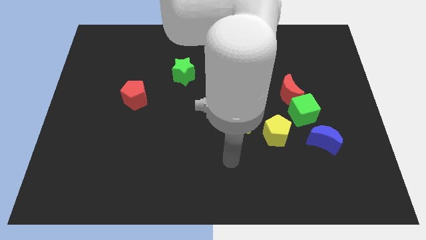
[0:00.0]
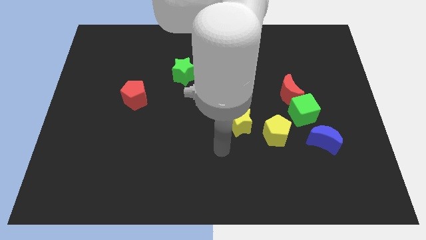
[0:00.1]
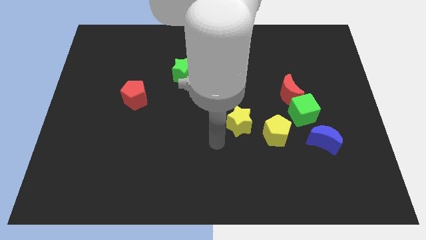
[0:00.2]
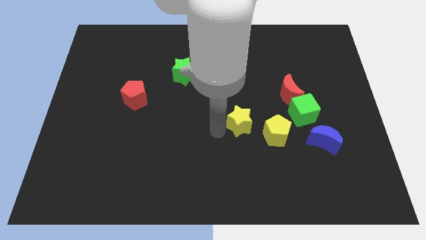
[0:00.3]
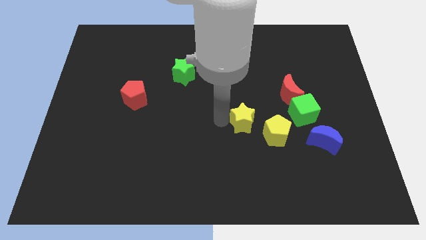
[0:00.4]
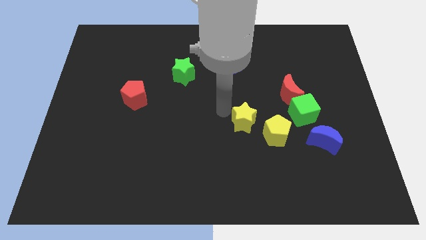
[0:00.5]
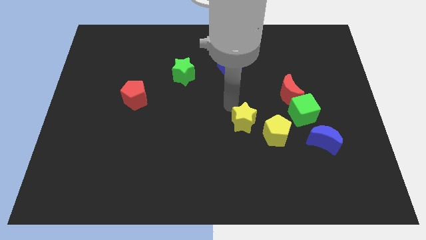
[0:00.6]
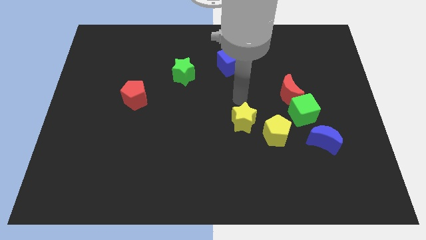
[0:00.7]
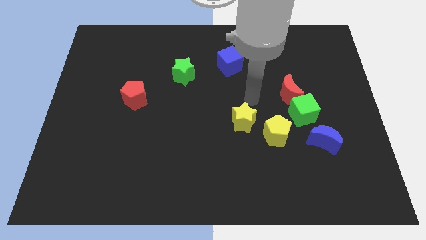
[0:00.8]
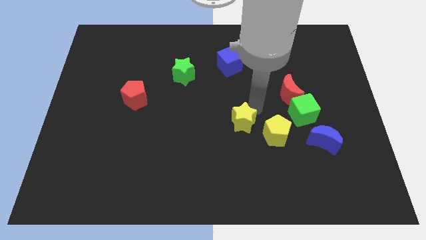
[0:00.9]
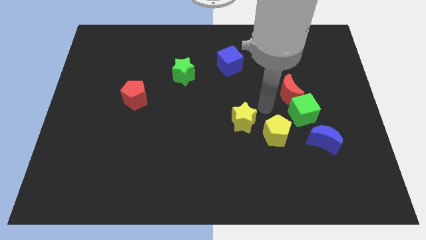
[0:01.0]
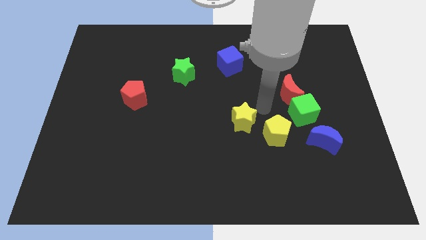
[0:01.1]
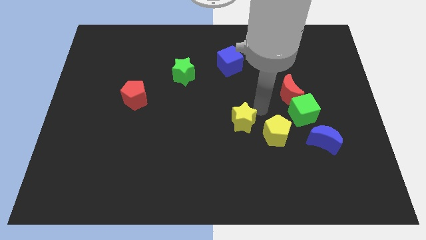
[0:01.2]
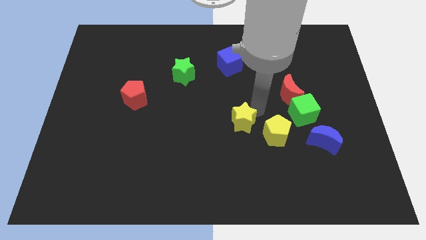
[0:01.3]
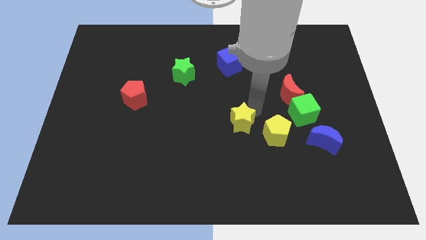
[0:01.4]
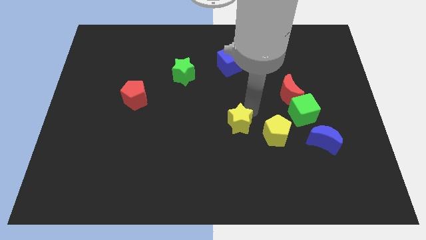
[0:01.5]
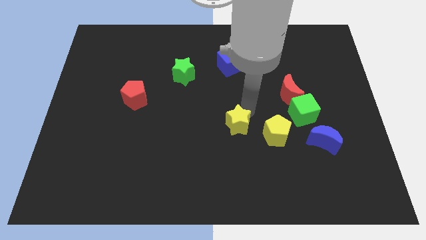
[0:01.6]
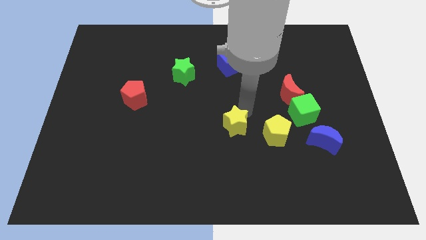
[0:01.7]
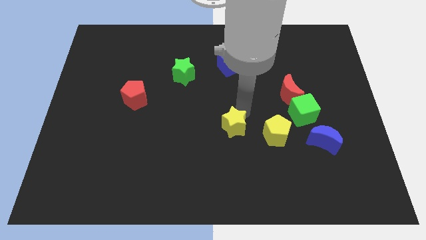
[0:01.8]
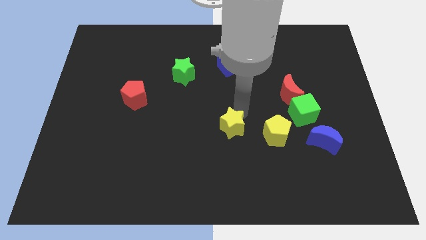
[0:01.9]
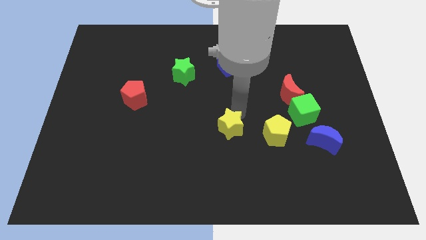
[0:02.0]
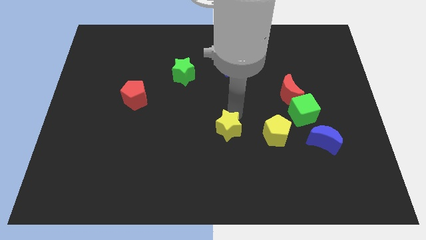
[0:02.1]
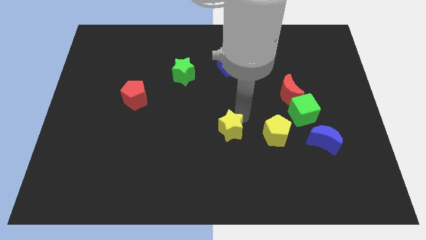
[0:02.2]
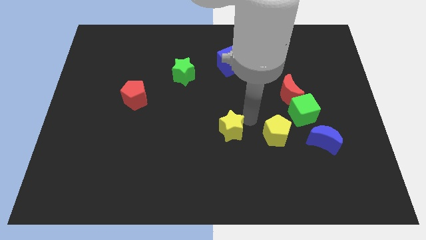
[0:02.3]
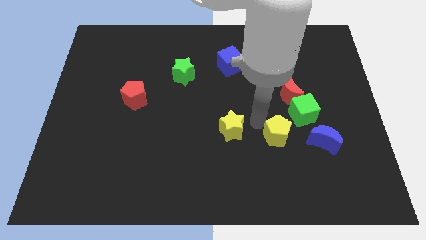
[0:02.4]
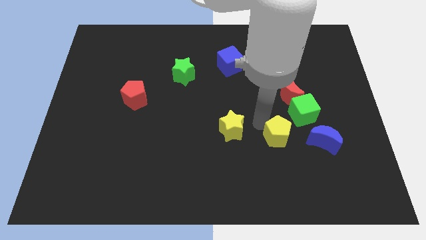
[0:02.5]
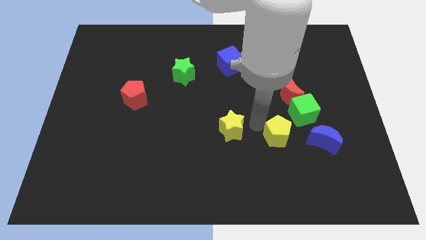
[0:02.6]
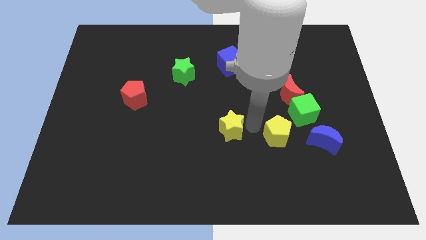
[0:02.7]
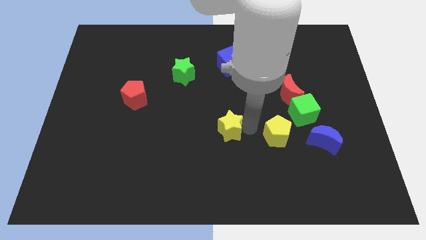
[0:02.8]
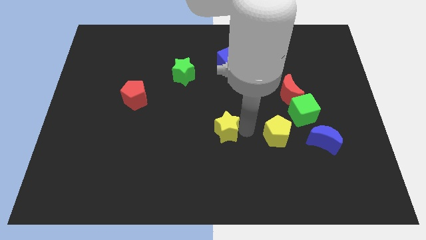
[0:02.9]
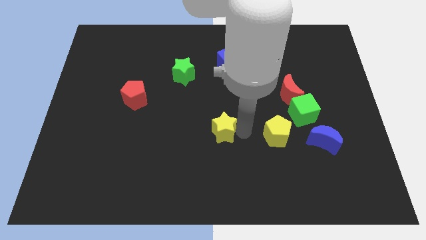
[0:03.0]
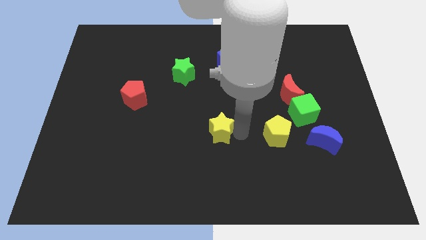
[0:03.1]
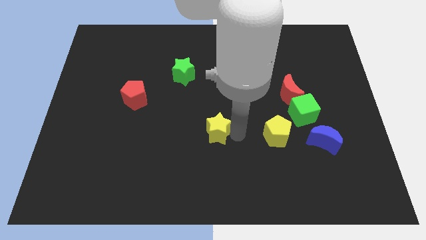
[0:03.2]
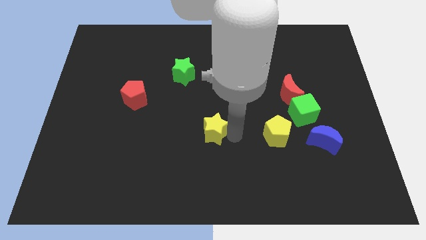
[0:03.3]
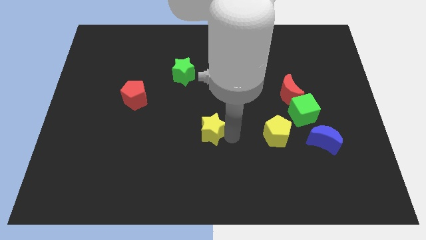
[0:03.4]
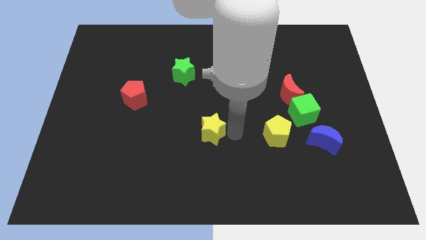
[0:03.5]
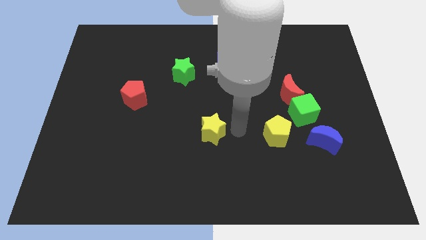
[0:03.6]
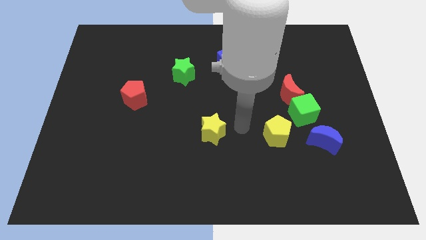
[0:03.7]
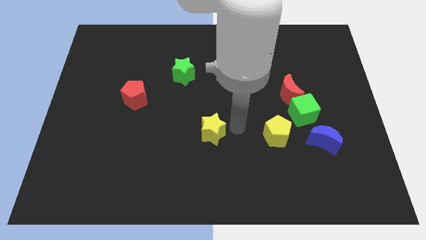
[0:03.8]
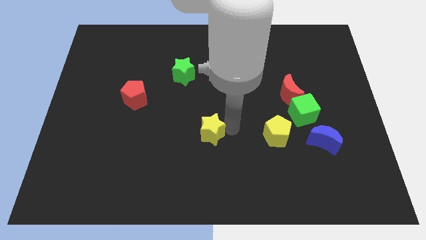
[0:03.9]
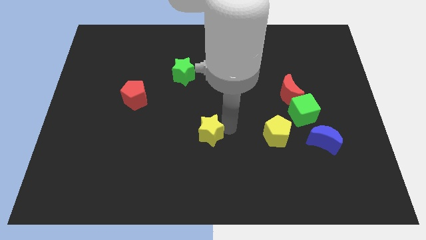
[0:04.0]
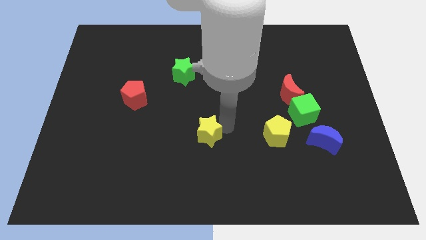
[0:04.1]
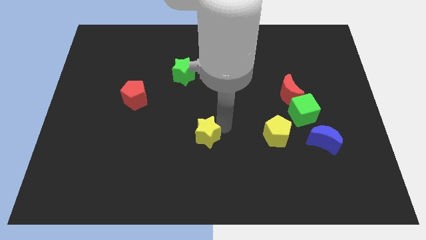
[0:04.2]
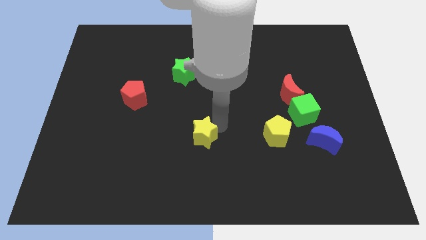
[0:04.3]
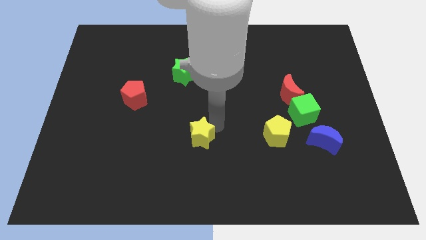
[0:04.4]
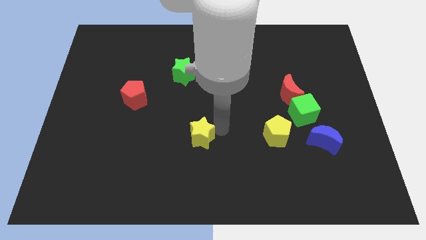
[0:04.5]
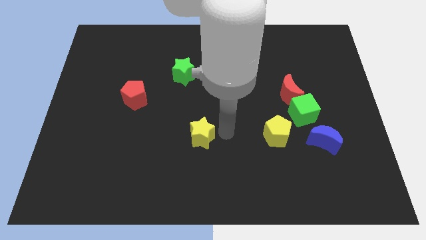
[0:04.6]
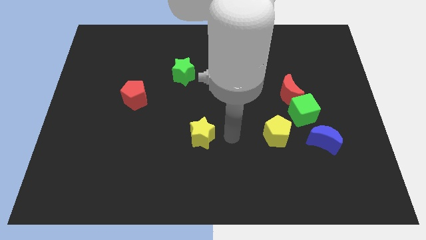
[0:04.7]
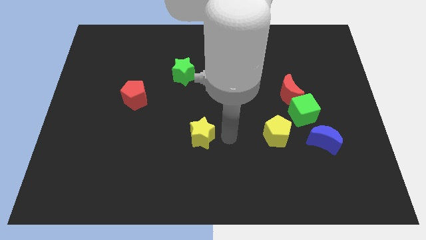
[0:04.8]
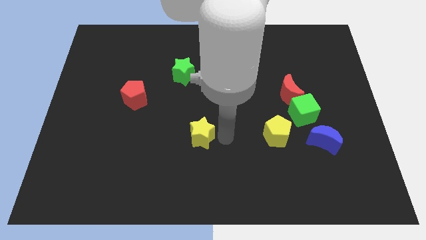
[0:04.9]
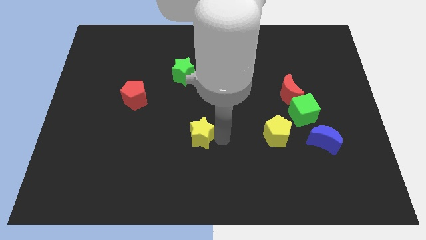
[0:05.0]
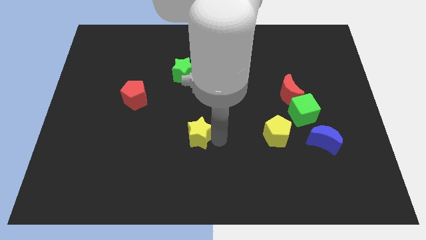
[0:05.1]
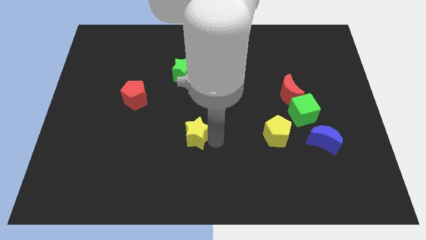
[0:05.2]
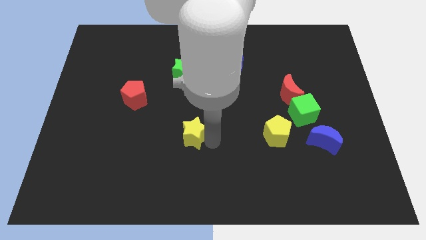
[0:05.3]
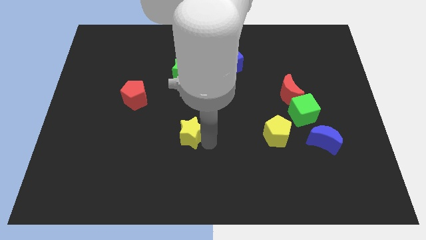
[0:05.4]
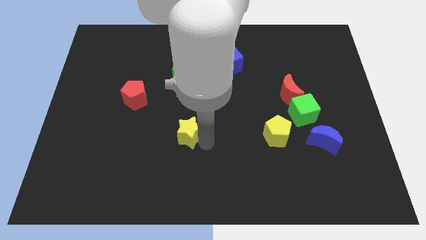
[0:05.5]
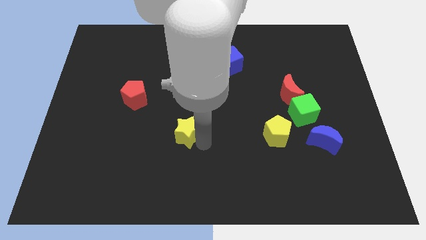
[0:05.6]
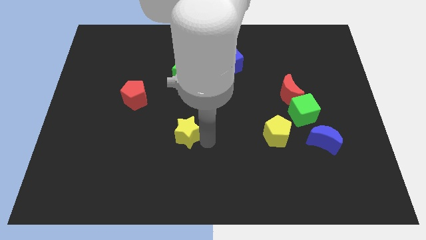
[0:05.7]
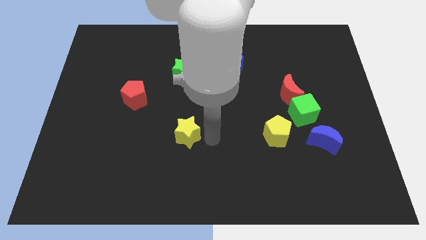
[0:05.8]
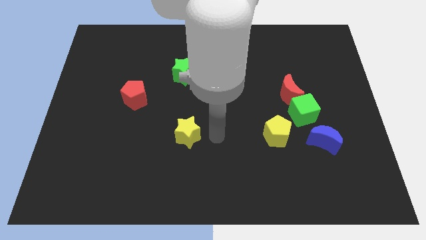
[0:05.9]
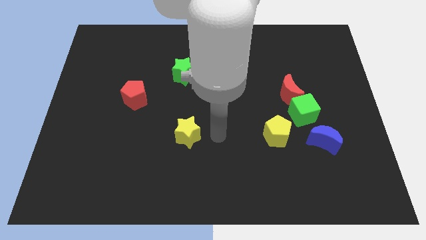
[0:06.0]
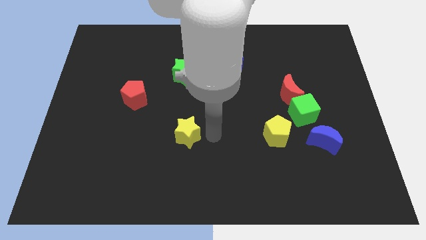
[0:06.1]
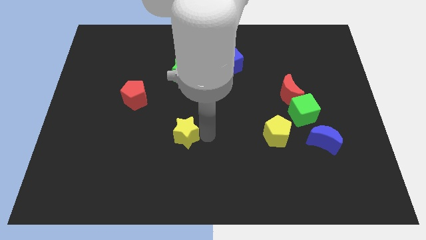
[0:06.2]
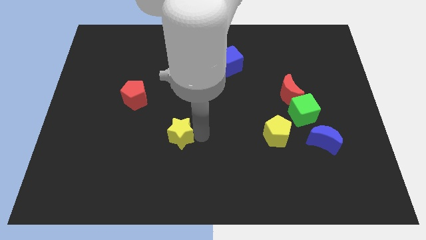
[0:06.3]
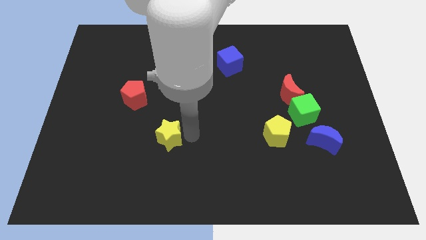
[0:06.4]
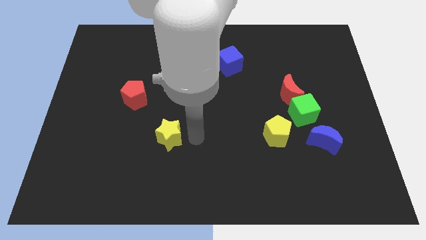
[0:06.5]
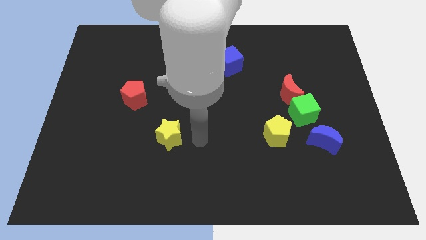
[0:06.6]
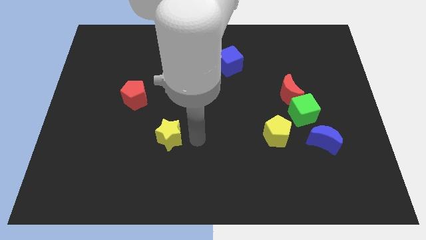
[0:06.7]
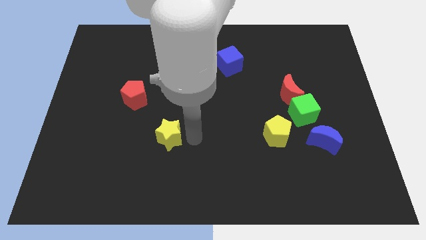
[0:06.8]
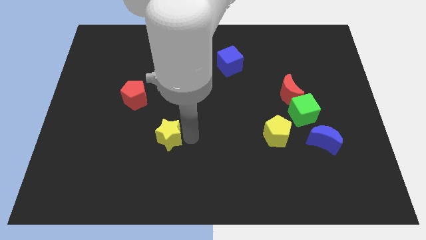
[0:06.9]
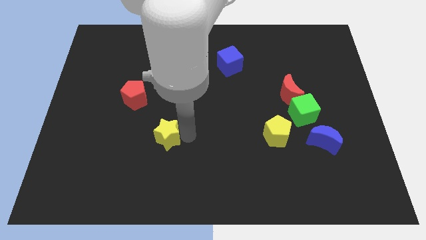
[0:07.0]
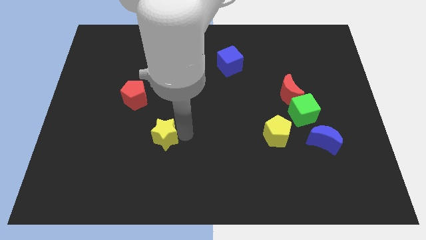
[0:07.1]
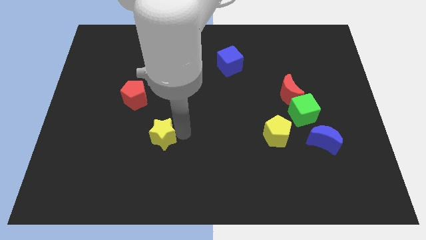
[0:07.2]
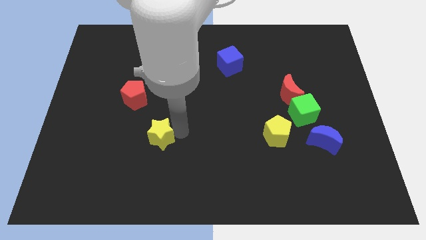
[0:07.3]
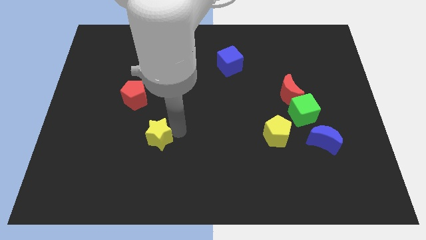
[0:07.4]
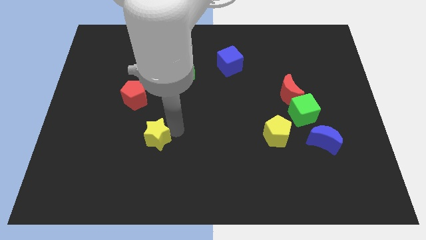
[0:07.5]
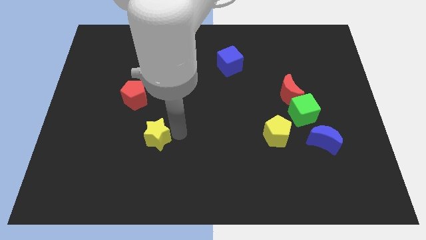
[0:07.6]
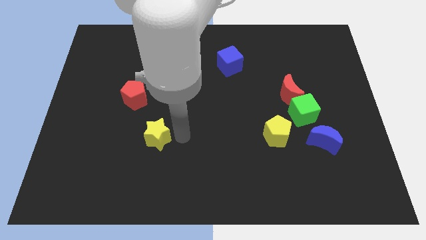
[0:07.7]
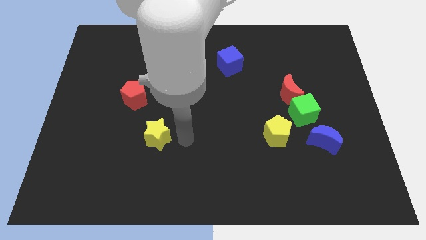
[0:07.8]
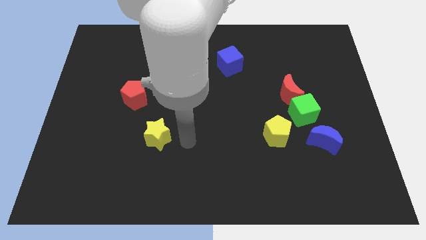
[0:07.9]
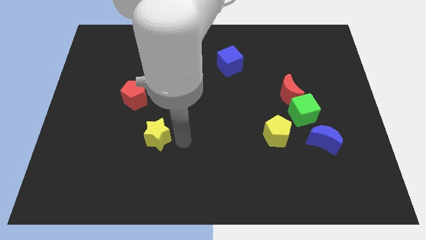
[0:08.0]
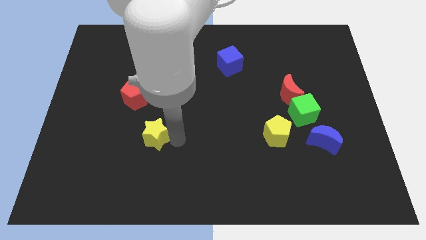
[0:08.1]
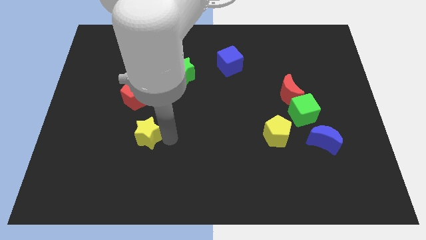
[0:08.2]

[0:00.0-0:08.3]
push the yellow star to the bottom side of the red pentagon
